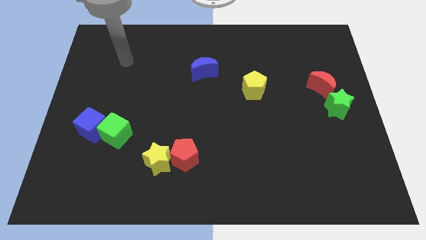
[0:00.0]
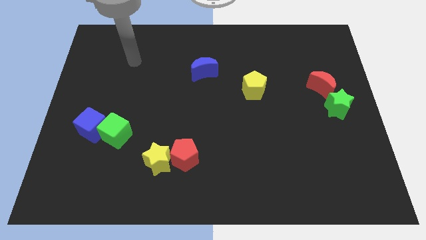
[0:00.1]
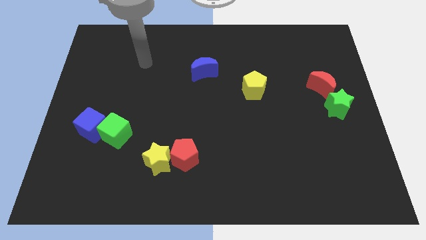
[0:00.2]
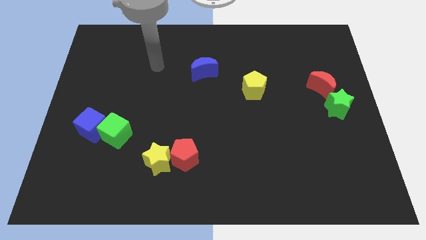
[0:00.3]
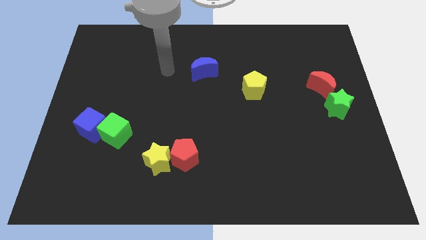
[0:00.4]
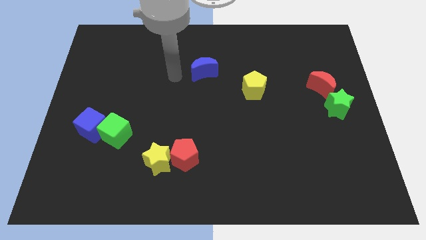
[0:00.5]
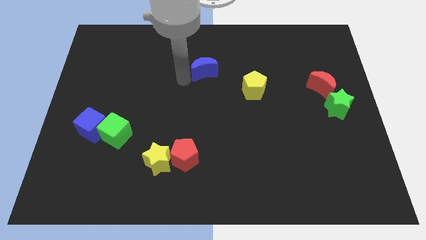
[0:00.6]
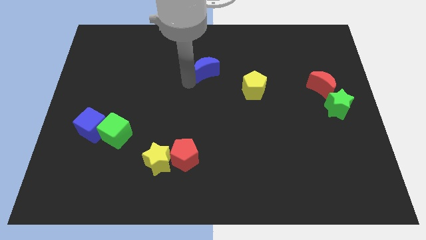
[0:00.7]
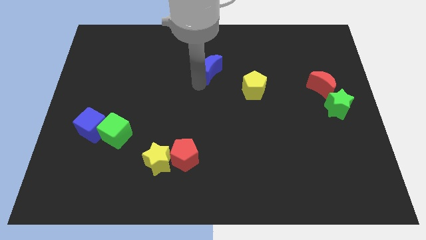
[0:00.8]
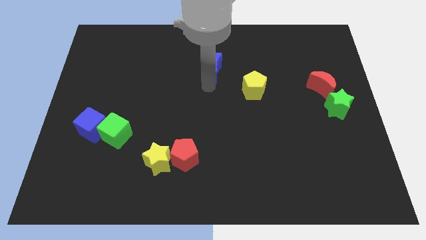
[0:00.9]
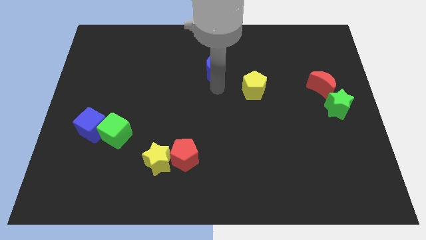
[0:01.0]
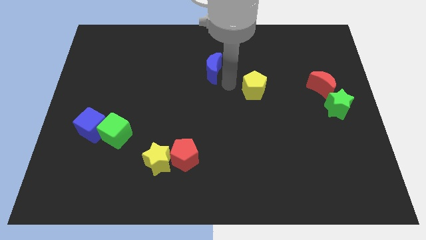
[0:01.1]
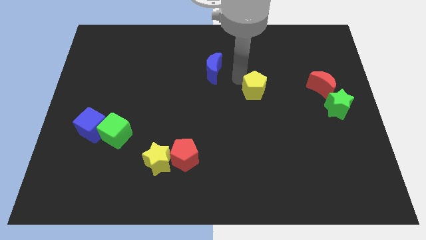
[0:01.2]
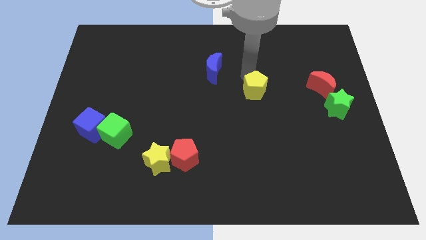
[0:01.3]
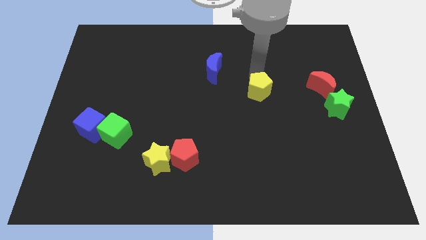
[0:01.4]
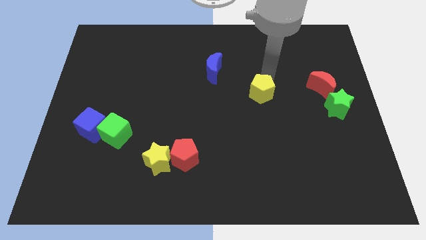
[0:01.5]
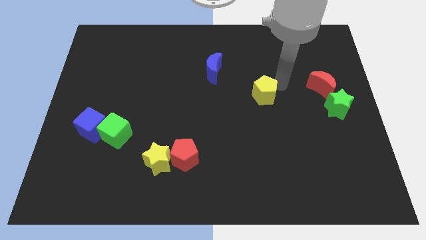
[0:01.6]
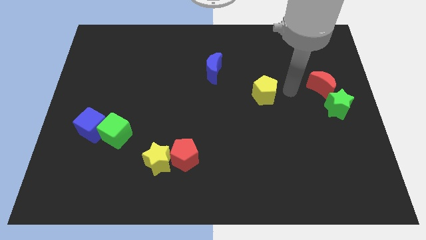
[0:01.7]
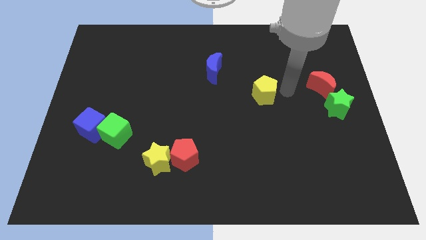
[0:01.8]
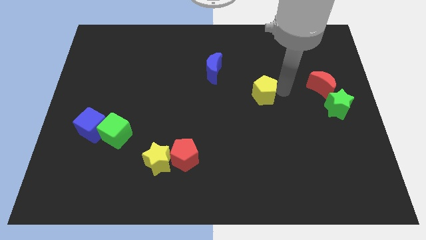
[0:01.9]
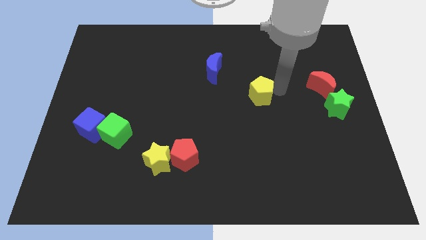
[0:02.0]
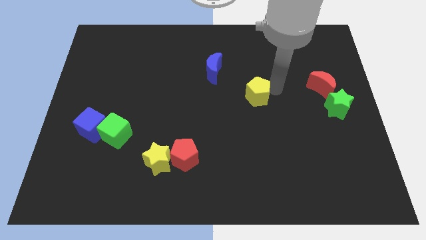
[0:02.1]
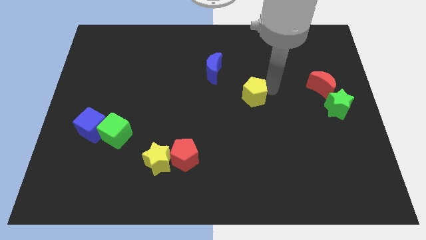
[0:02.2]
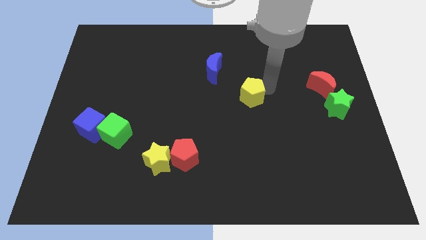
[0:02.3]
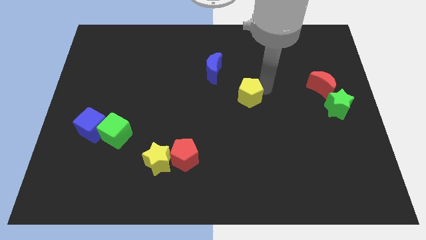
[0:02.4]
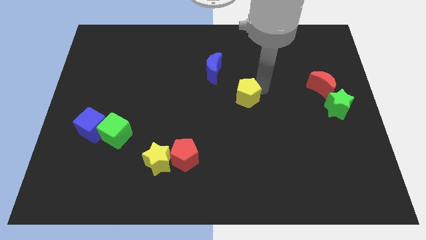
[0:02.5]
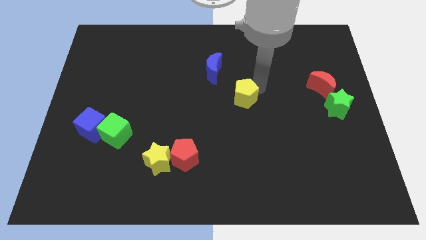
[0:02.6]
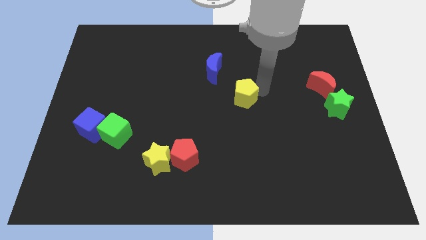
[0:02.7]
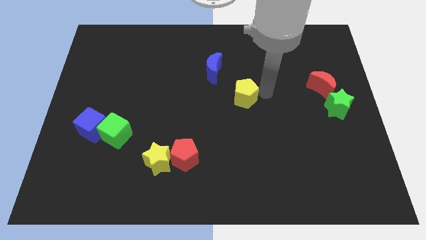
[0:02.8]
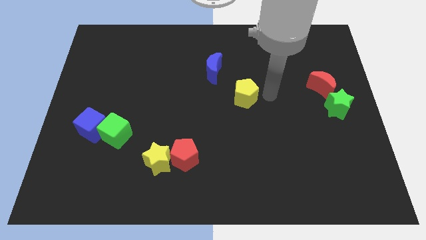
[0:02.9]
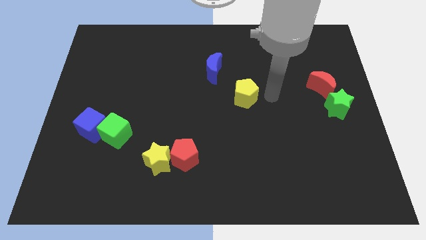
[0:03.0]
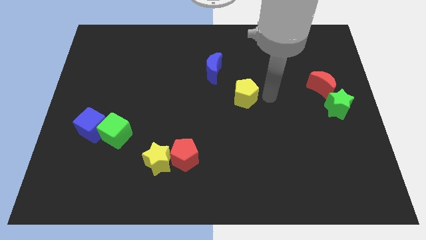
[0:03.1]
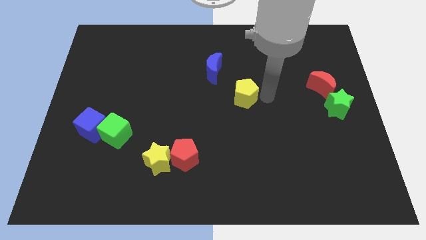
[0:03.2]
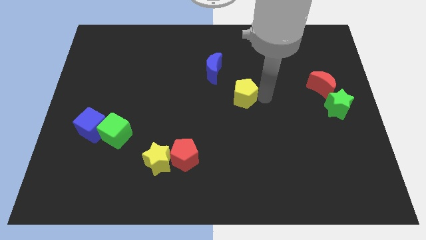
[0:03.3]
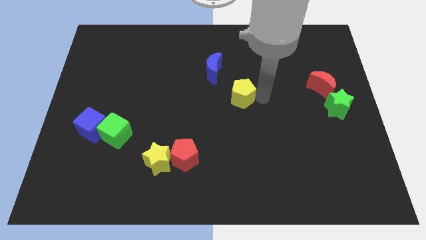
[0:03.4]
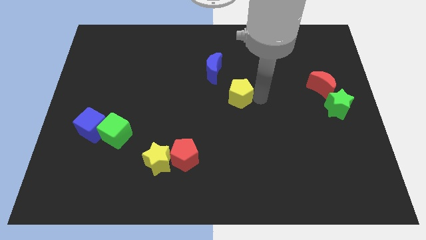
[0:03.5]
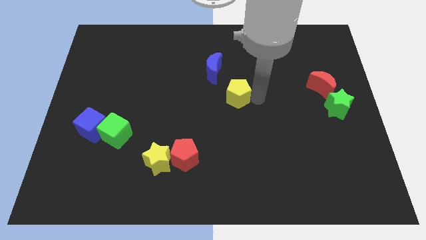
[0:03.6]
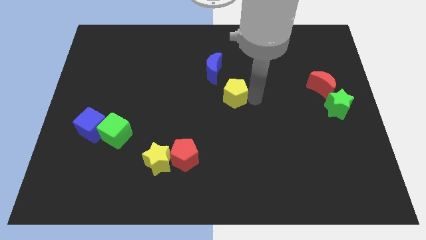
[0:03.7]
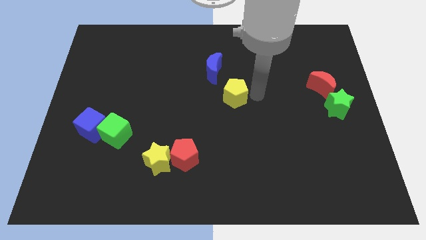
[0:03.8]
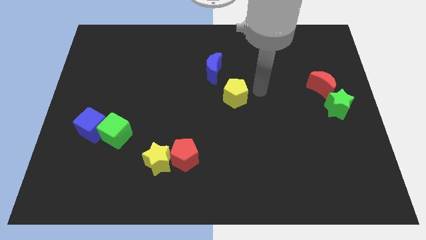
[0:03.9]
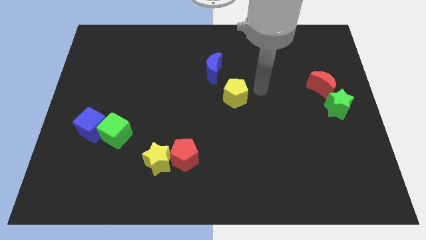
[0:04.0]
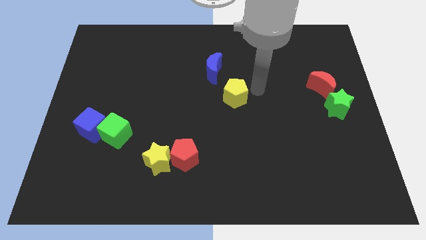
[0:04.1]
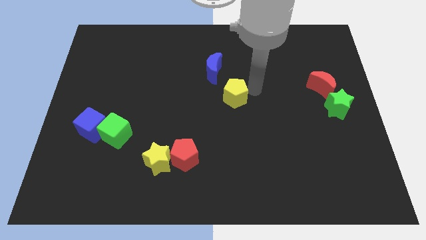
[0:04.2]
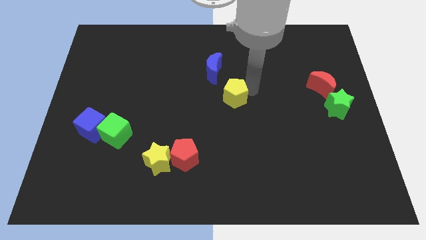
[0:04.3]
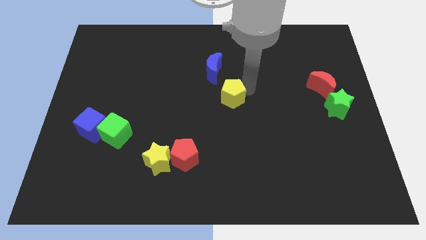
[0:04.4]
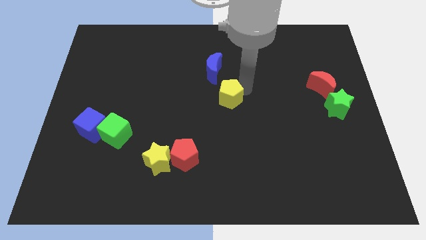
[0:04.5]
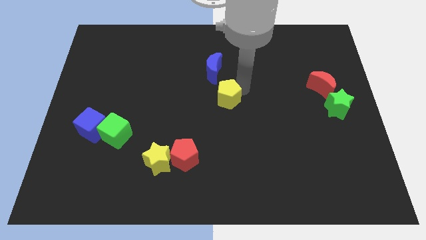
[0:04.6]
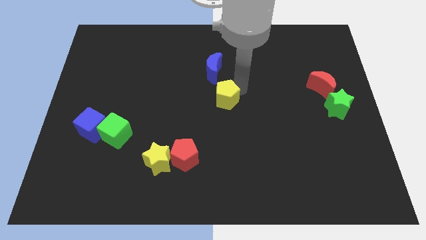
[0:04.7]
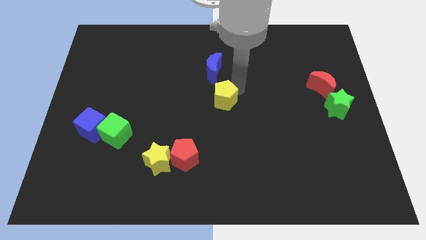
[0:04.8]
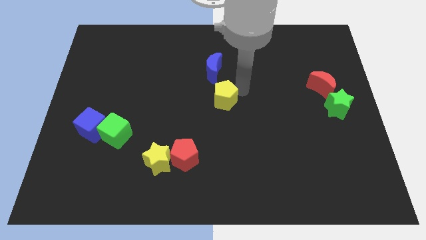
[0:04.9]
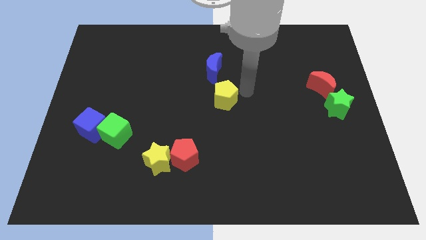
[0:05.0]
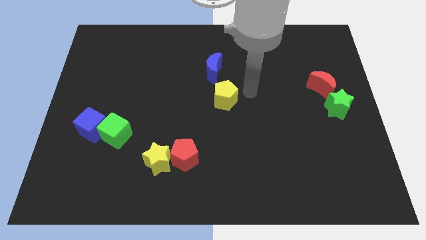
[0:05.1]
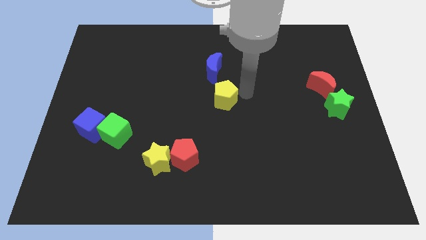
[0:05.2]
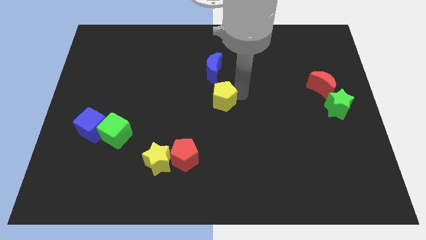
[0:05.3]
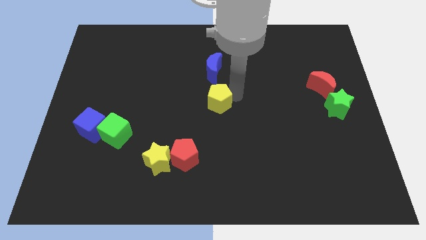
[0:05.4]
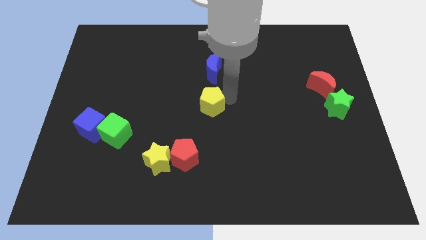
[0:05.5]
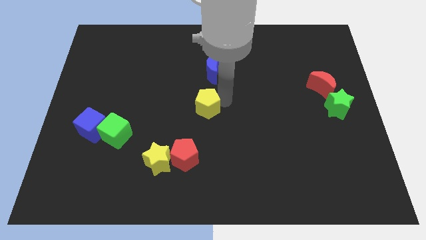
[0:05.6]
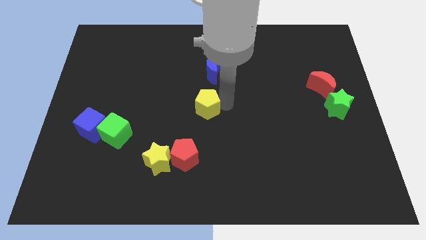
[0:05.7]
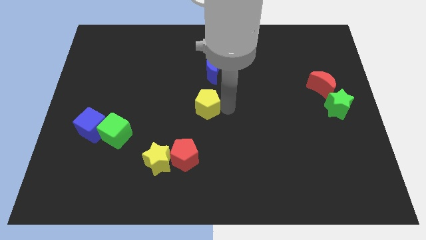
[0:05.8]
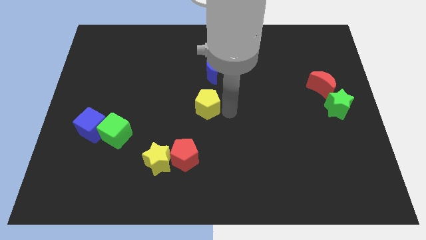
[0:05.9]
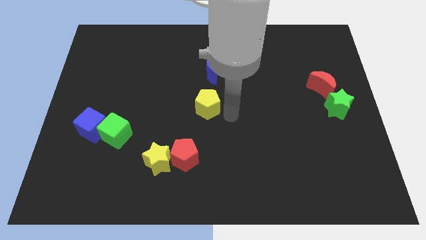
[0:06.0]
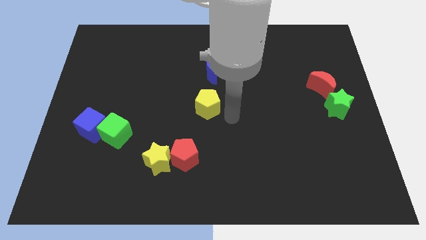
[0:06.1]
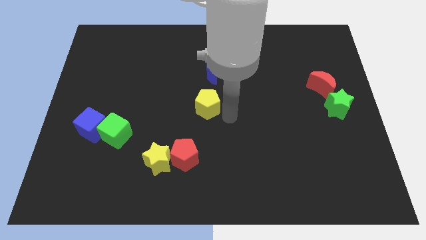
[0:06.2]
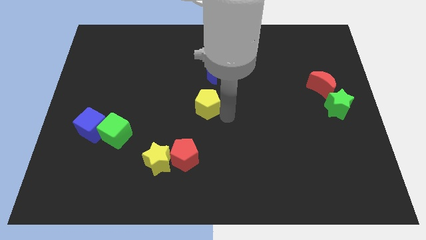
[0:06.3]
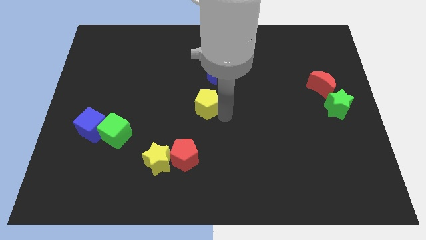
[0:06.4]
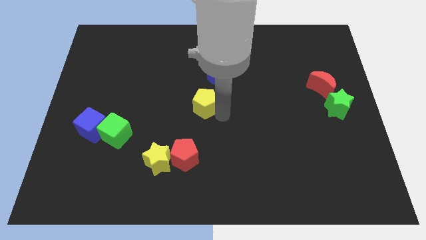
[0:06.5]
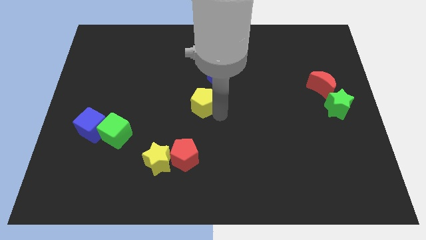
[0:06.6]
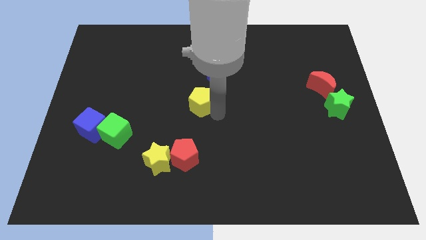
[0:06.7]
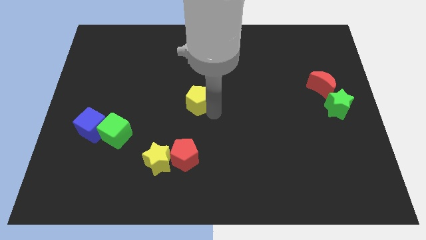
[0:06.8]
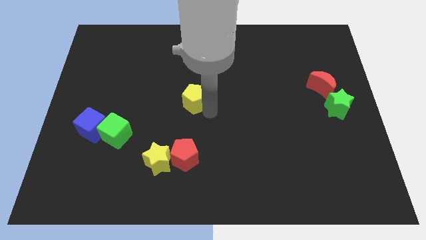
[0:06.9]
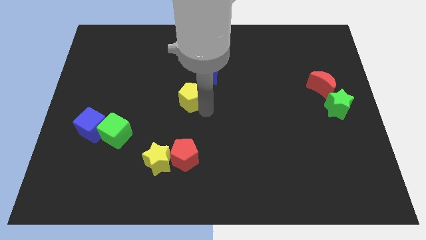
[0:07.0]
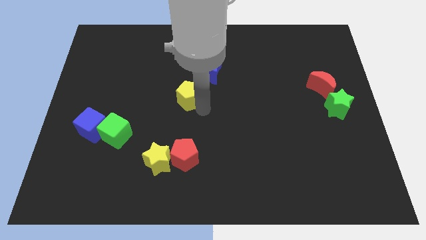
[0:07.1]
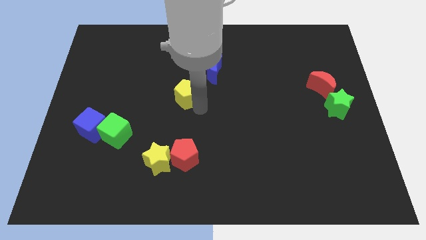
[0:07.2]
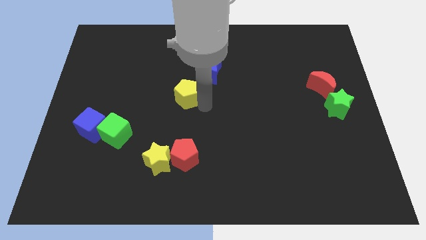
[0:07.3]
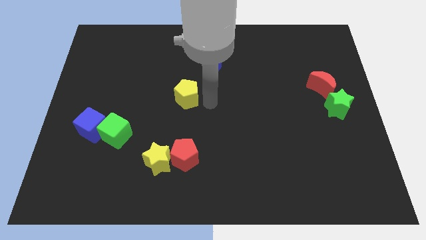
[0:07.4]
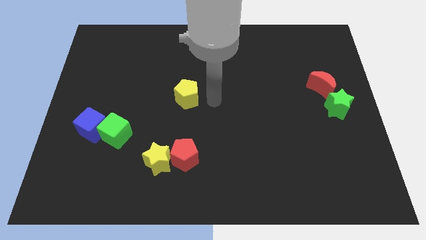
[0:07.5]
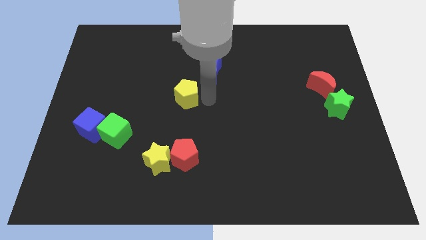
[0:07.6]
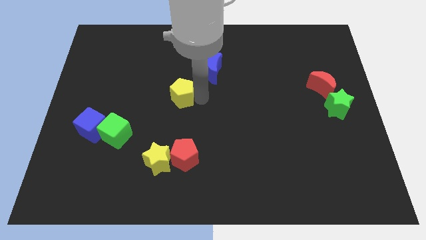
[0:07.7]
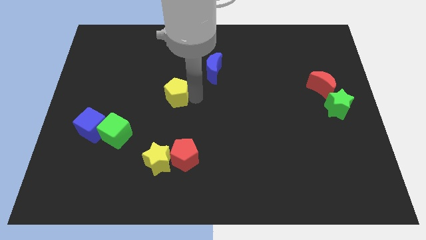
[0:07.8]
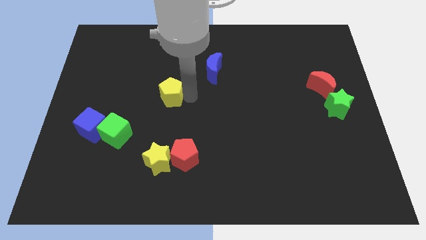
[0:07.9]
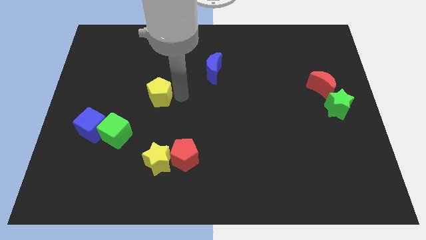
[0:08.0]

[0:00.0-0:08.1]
push the yellow pentagon left
